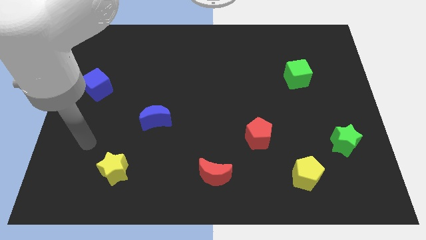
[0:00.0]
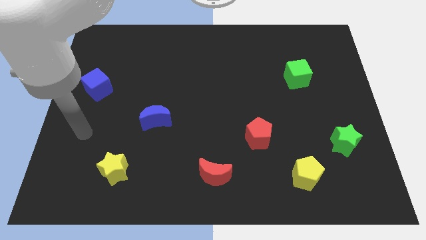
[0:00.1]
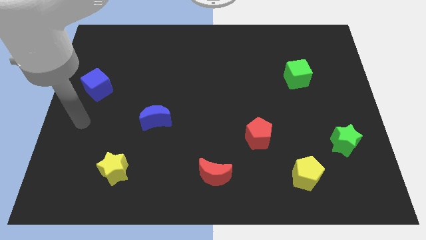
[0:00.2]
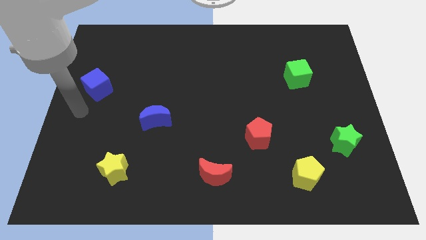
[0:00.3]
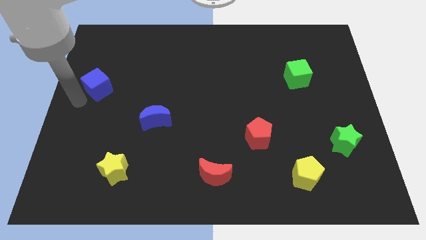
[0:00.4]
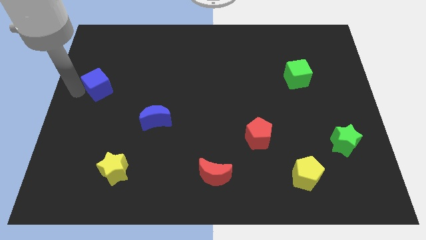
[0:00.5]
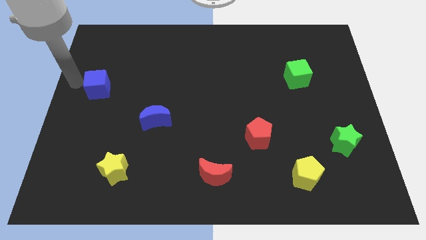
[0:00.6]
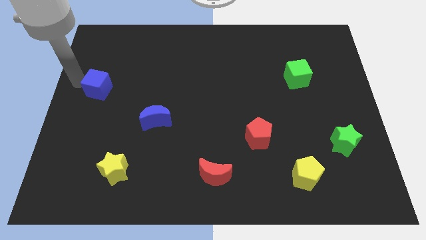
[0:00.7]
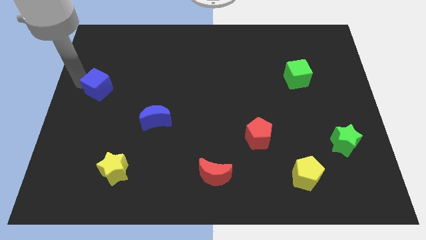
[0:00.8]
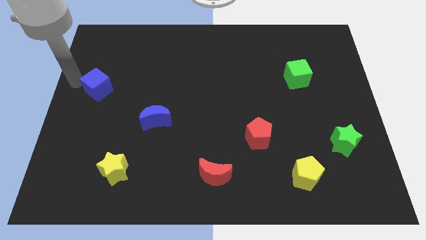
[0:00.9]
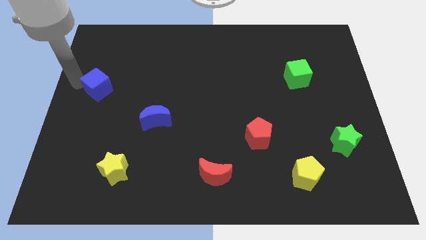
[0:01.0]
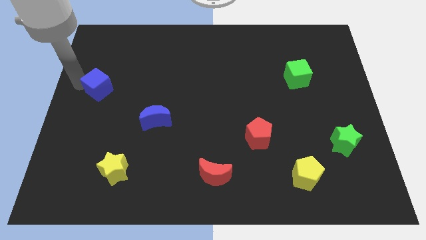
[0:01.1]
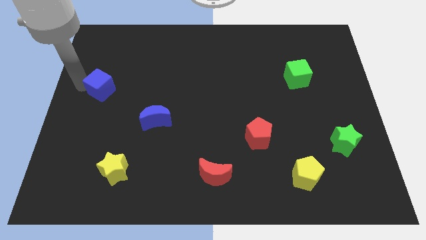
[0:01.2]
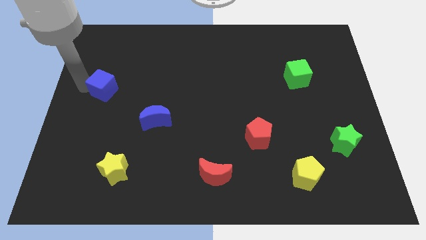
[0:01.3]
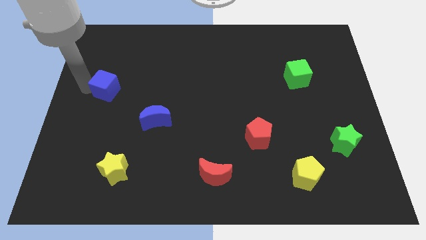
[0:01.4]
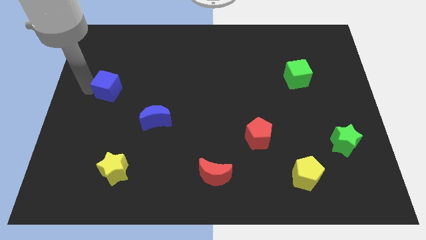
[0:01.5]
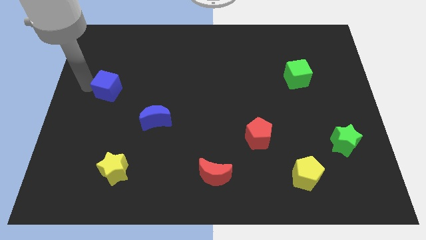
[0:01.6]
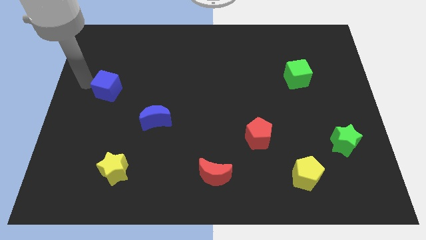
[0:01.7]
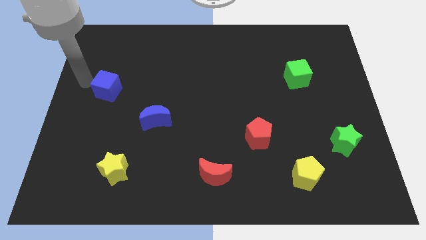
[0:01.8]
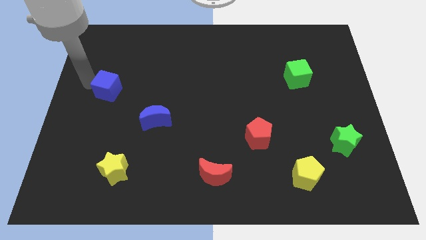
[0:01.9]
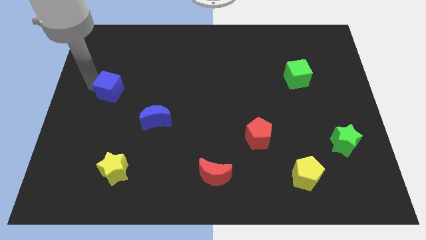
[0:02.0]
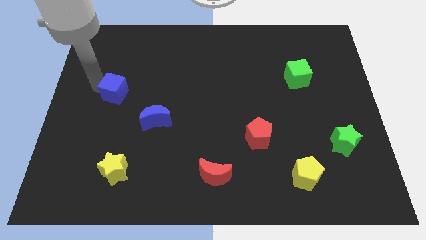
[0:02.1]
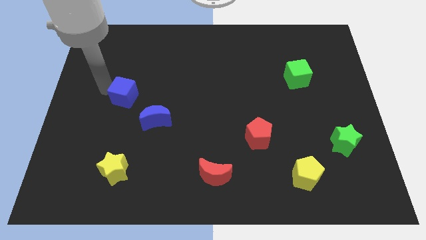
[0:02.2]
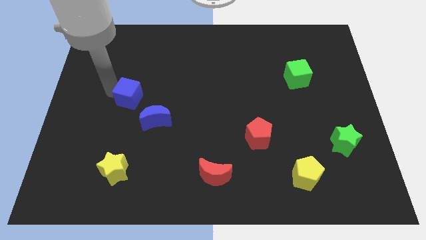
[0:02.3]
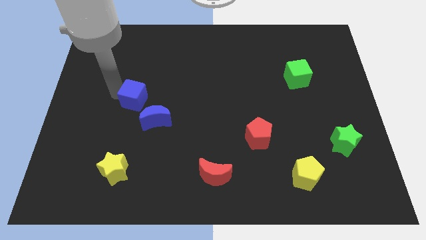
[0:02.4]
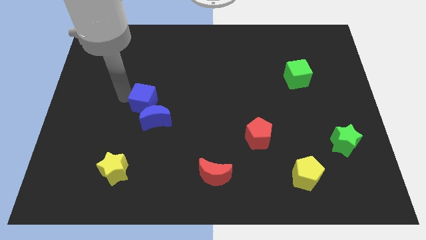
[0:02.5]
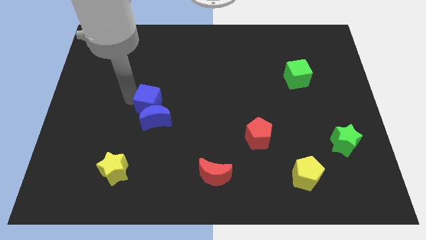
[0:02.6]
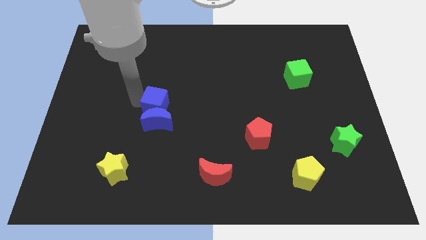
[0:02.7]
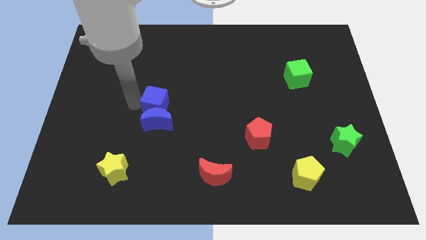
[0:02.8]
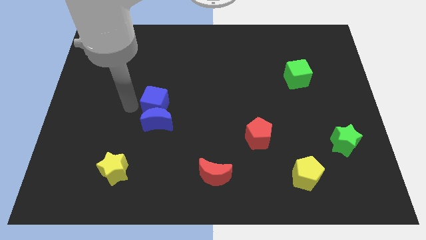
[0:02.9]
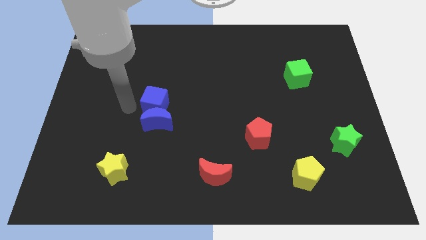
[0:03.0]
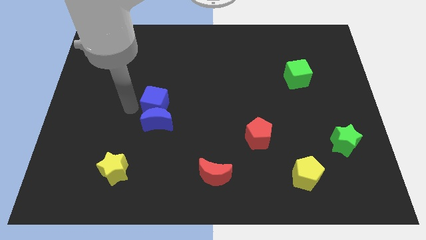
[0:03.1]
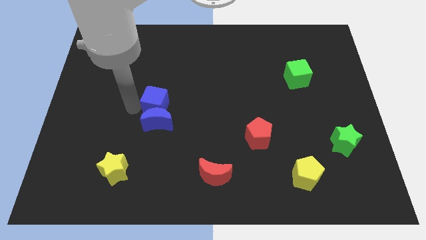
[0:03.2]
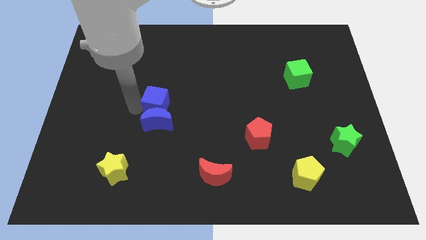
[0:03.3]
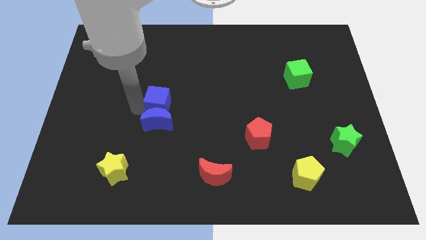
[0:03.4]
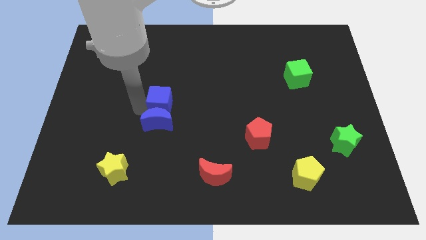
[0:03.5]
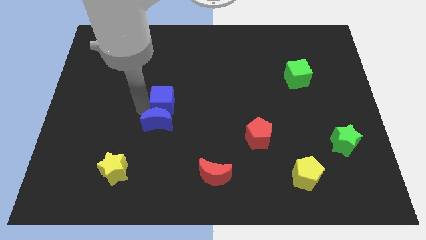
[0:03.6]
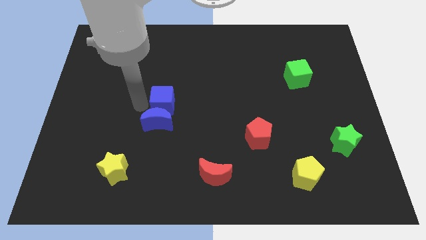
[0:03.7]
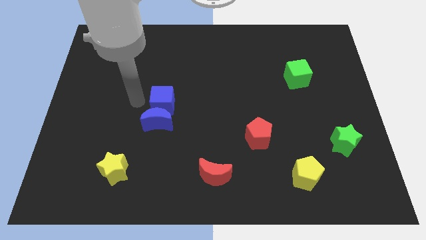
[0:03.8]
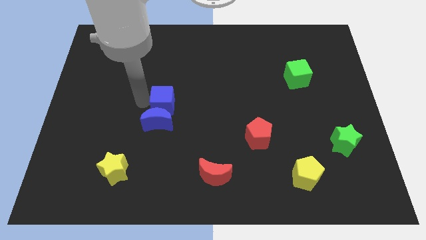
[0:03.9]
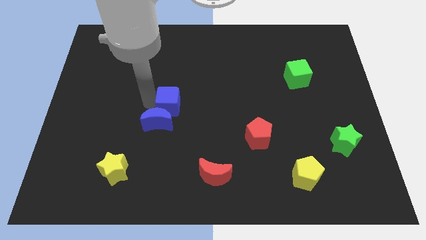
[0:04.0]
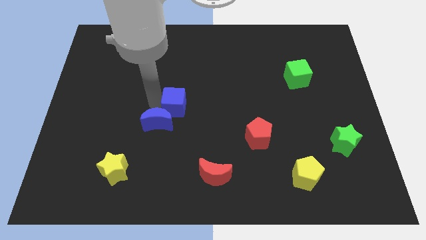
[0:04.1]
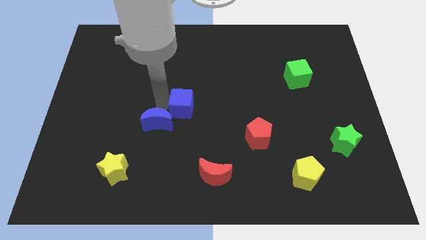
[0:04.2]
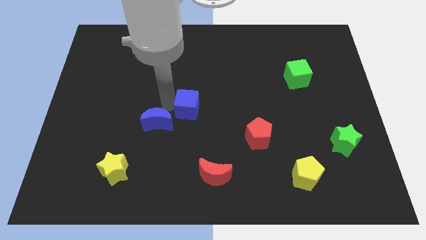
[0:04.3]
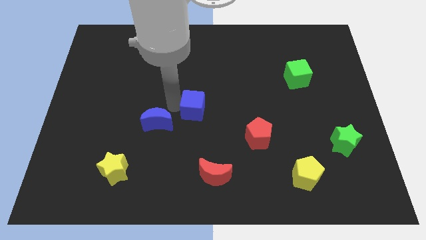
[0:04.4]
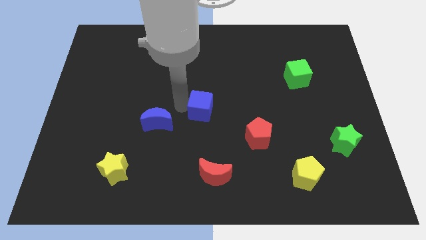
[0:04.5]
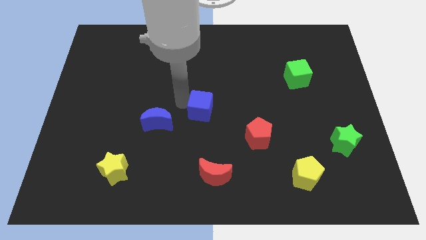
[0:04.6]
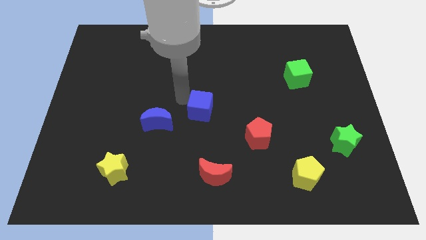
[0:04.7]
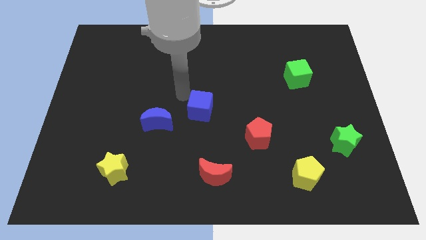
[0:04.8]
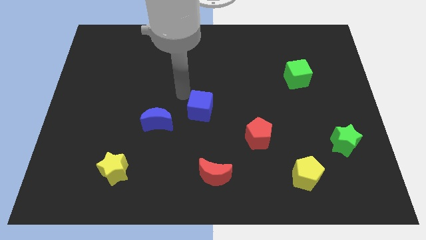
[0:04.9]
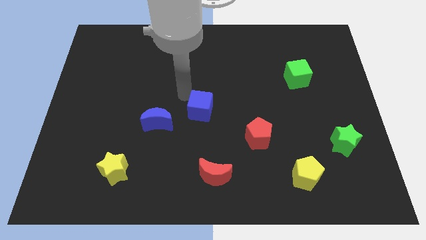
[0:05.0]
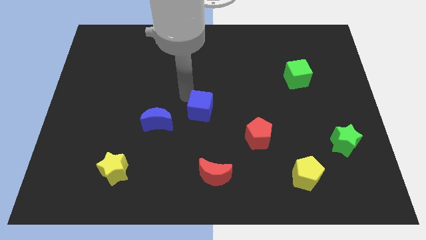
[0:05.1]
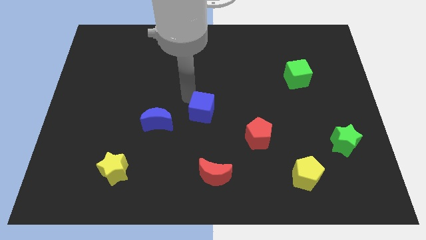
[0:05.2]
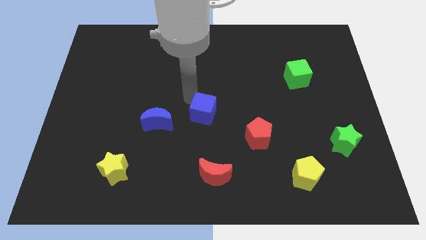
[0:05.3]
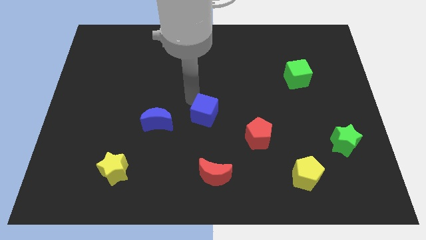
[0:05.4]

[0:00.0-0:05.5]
put the blue cube to the top of the red moon

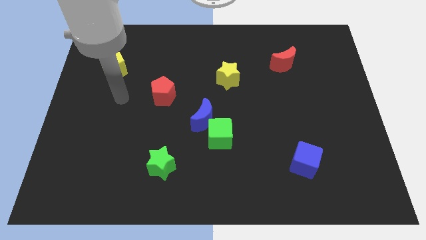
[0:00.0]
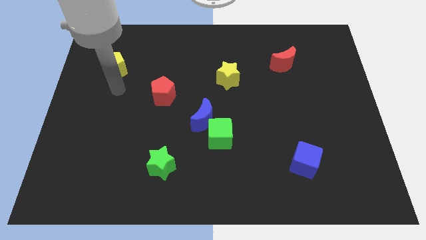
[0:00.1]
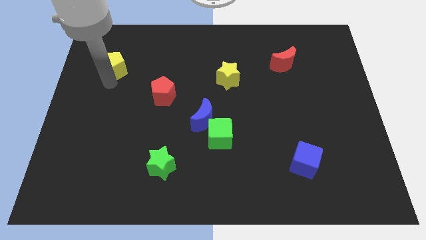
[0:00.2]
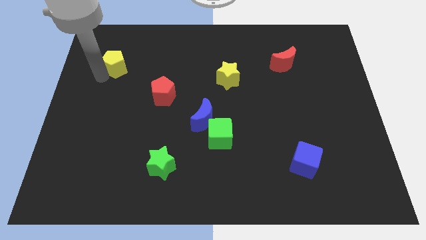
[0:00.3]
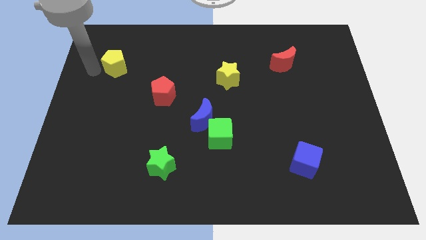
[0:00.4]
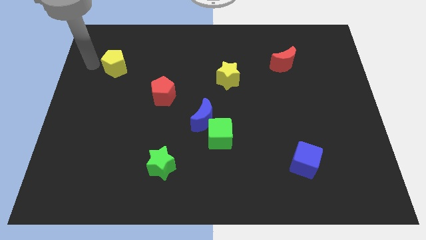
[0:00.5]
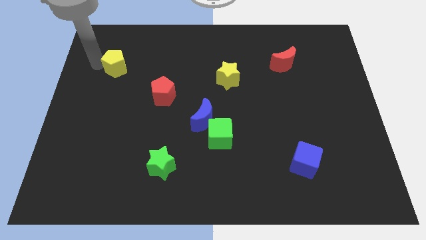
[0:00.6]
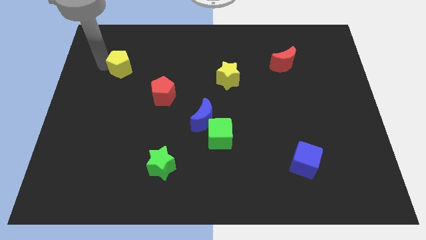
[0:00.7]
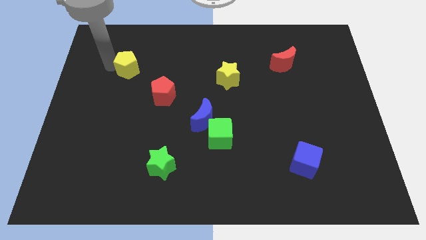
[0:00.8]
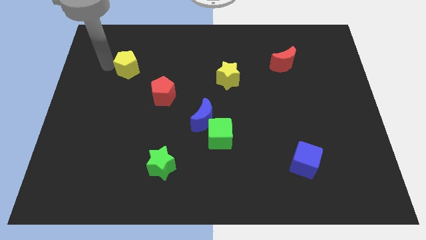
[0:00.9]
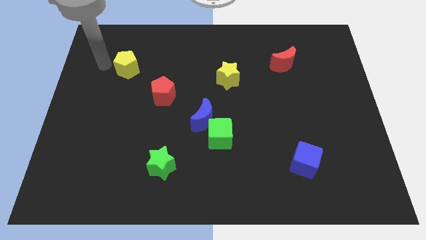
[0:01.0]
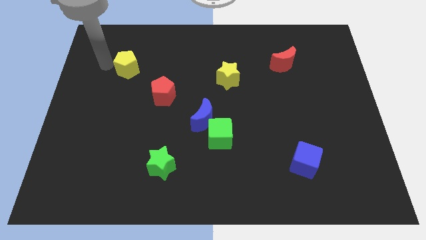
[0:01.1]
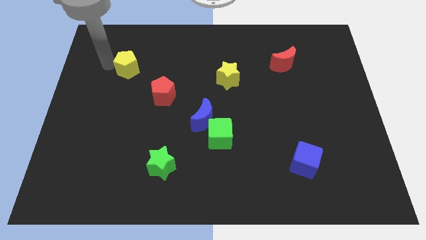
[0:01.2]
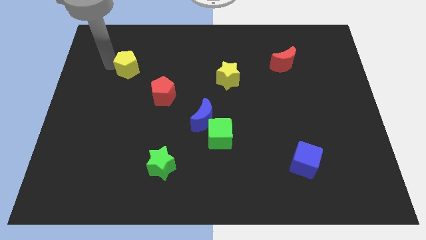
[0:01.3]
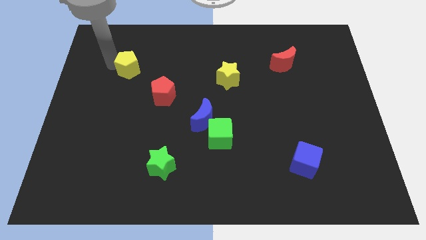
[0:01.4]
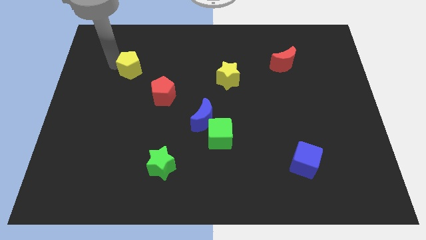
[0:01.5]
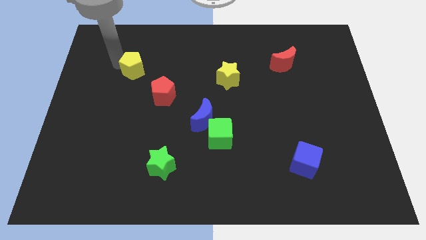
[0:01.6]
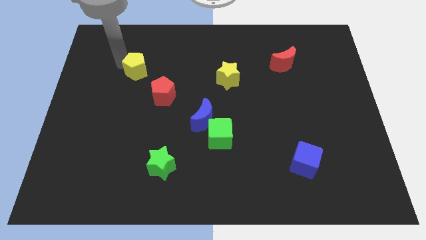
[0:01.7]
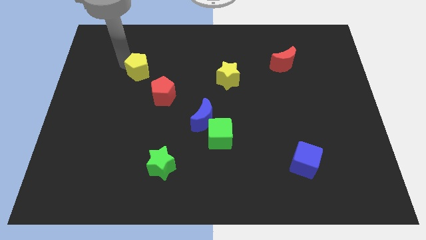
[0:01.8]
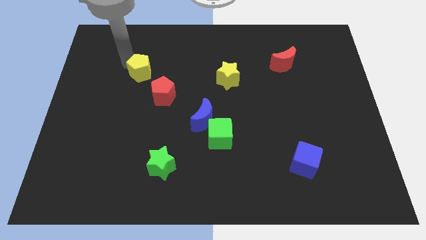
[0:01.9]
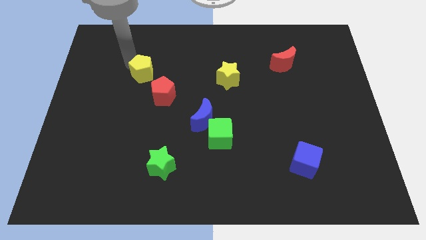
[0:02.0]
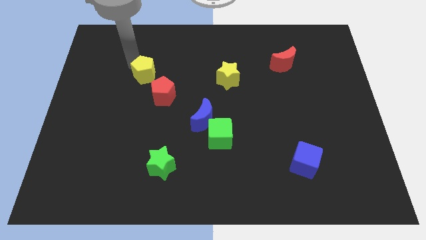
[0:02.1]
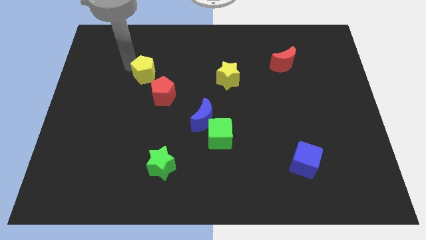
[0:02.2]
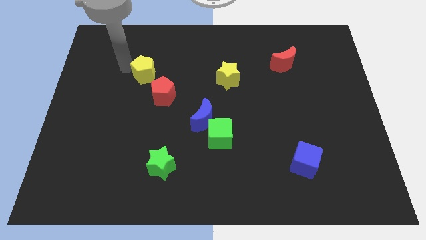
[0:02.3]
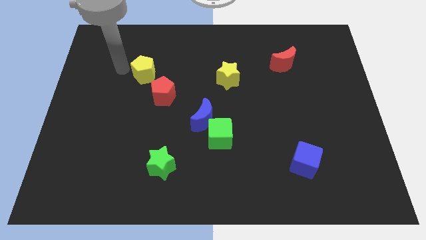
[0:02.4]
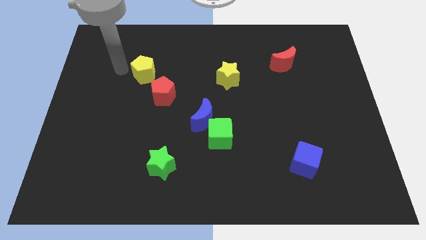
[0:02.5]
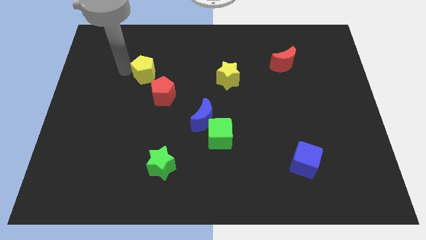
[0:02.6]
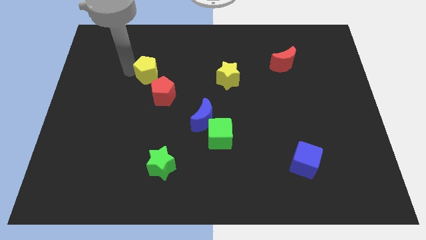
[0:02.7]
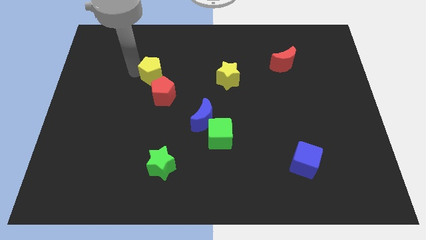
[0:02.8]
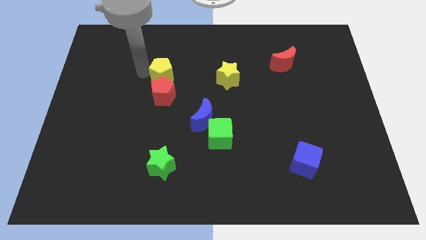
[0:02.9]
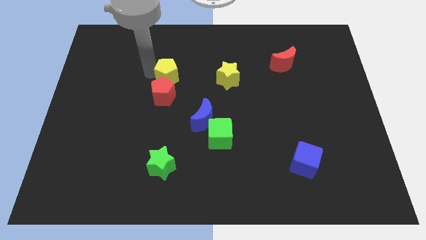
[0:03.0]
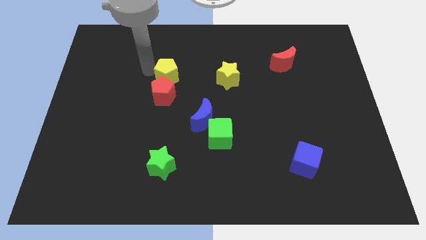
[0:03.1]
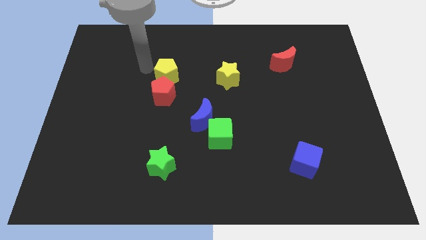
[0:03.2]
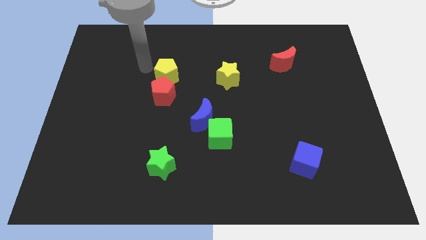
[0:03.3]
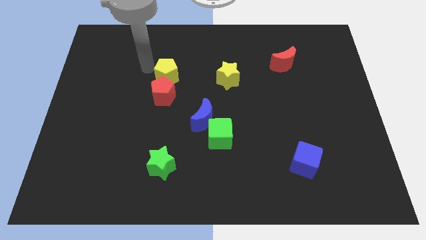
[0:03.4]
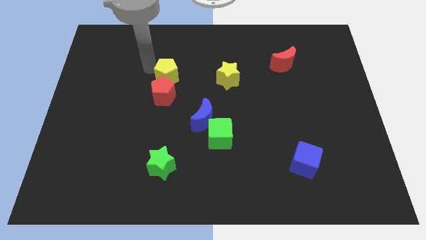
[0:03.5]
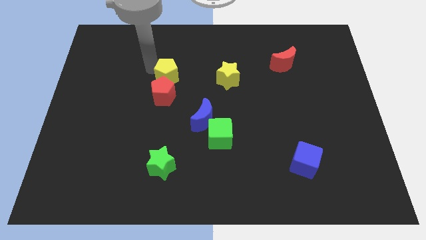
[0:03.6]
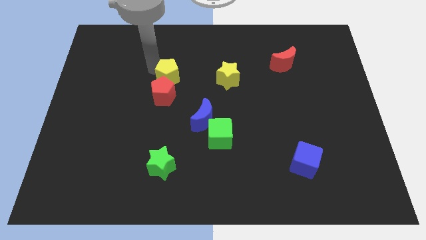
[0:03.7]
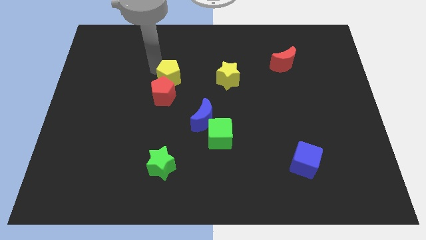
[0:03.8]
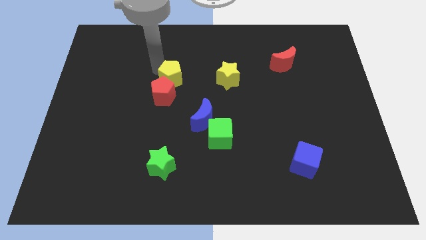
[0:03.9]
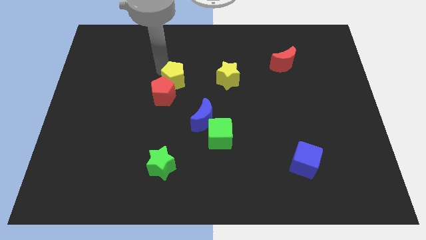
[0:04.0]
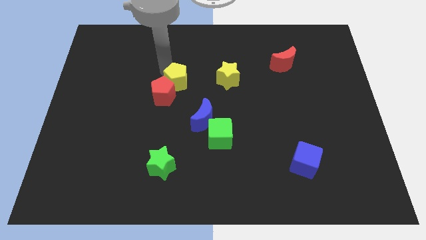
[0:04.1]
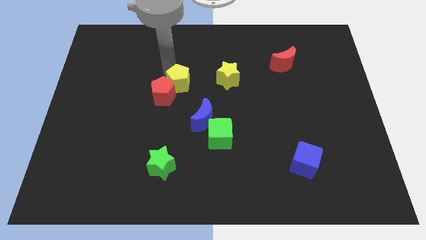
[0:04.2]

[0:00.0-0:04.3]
push the yellow pentagon to the right of the red pentagon
